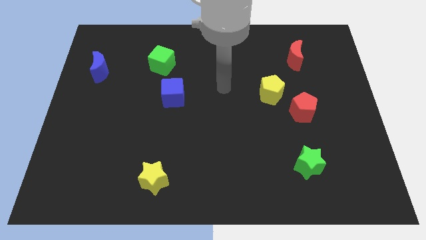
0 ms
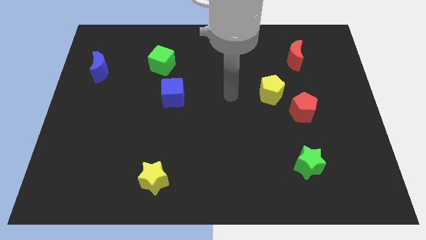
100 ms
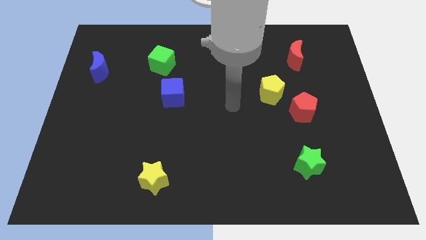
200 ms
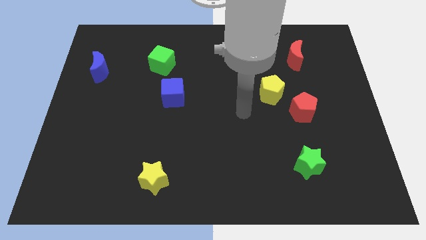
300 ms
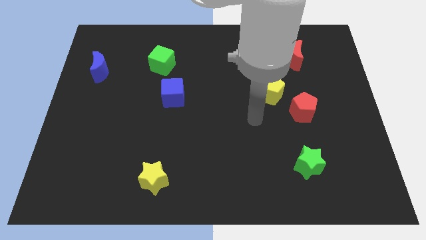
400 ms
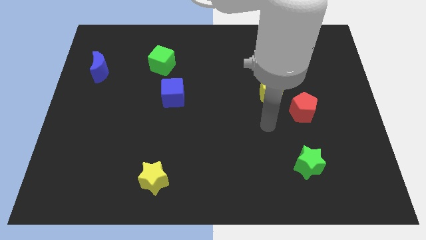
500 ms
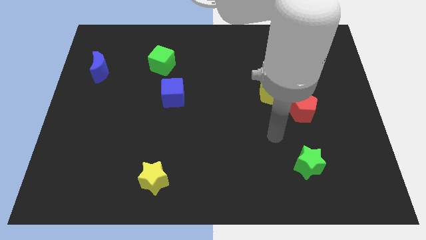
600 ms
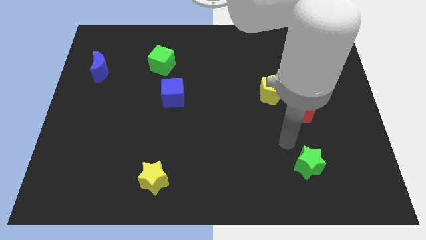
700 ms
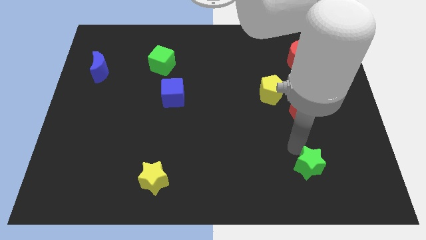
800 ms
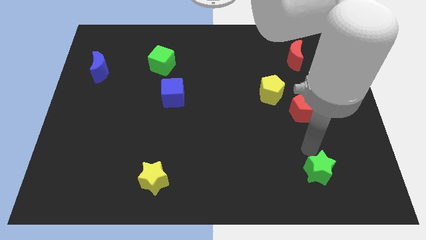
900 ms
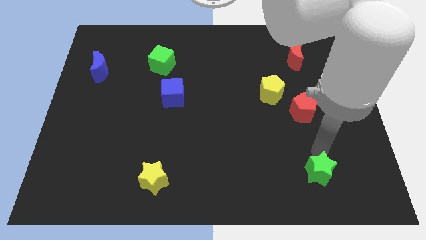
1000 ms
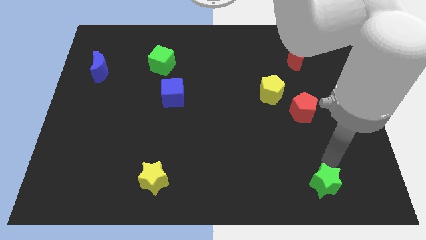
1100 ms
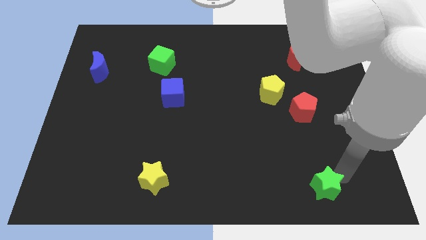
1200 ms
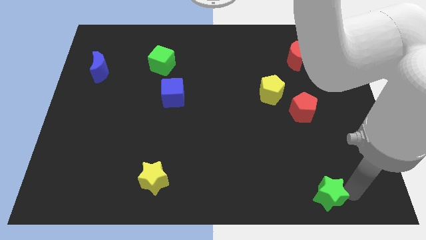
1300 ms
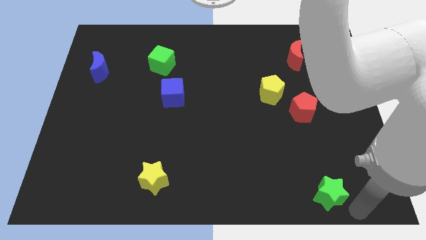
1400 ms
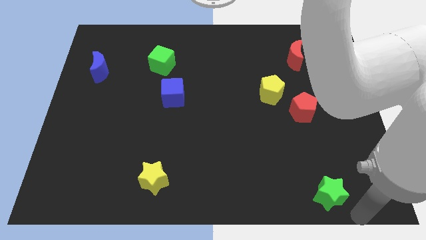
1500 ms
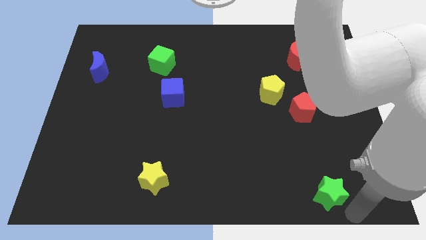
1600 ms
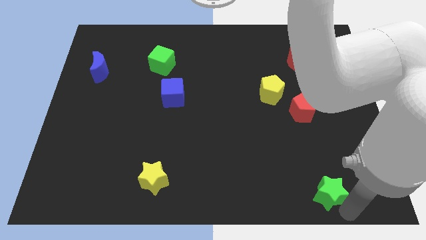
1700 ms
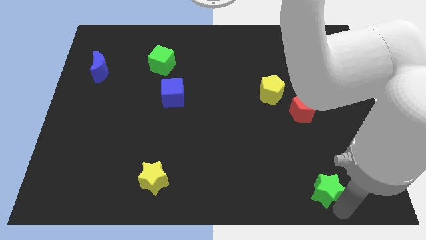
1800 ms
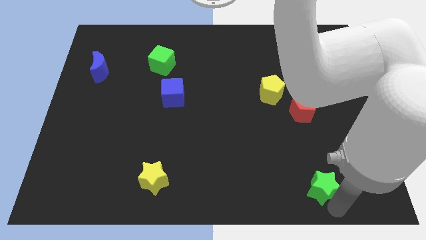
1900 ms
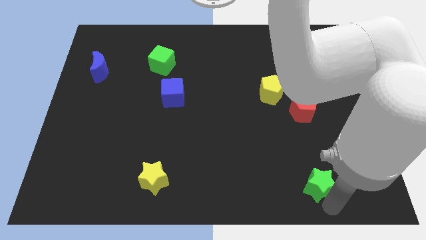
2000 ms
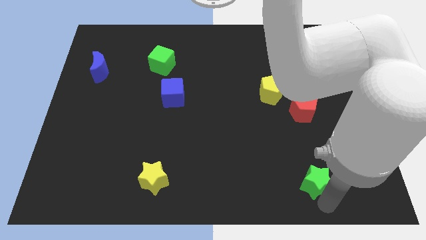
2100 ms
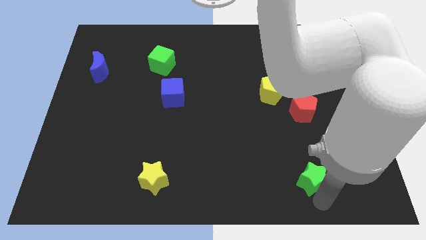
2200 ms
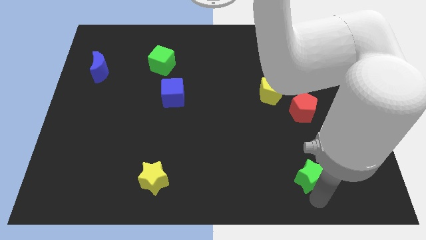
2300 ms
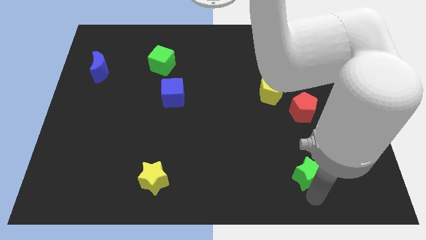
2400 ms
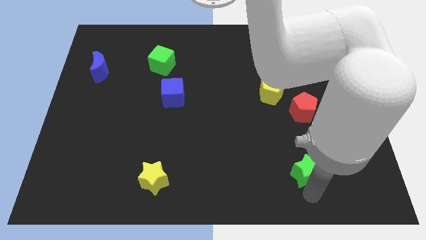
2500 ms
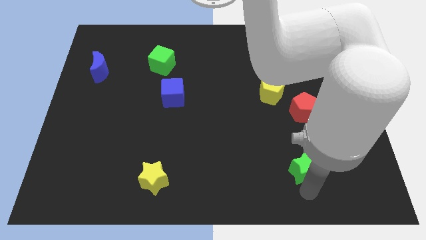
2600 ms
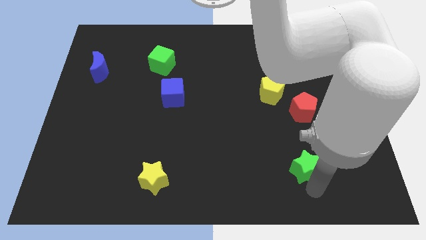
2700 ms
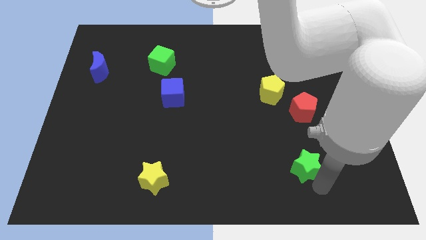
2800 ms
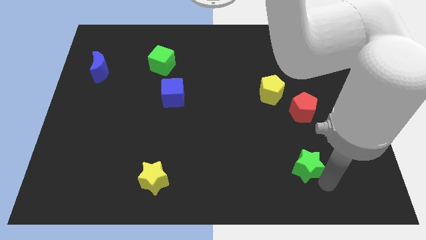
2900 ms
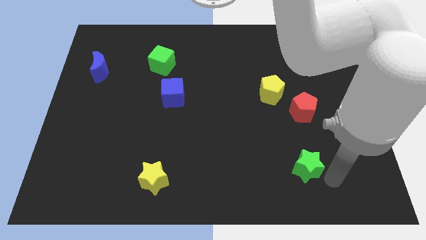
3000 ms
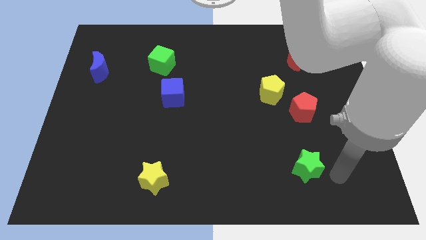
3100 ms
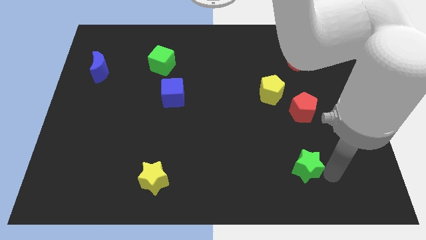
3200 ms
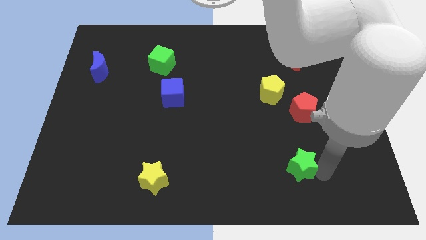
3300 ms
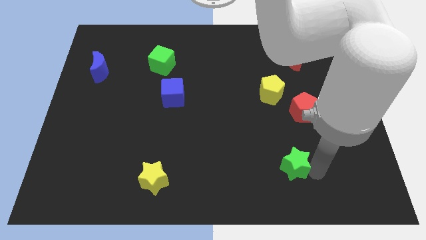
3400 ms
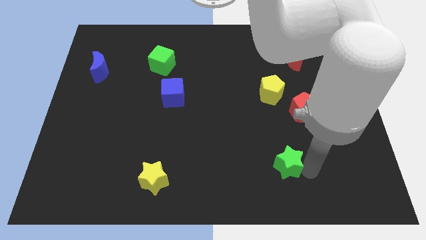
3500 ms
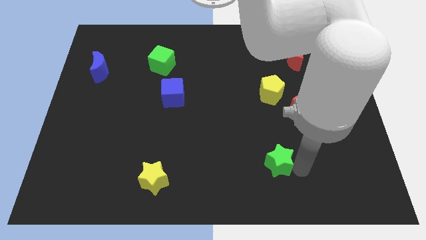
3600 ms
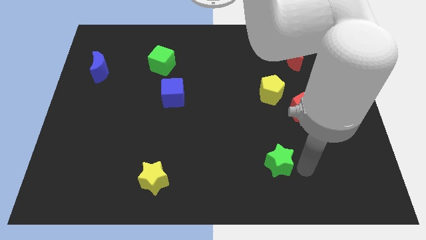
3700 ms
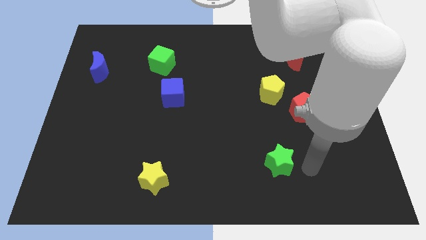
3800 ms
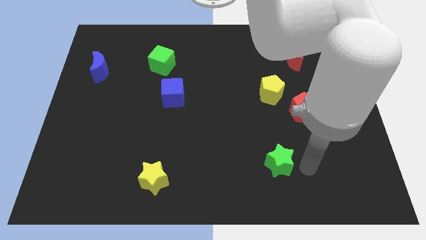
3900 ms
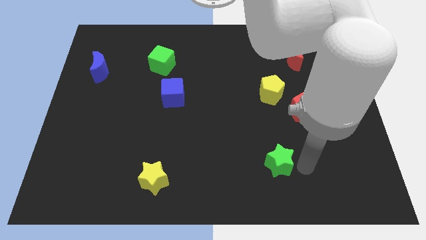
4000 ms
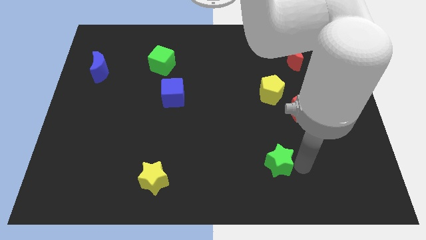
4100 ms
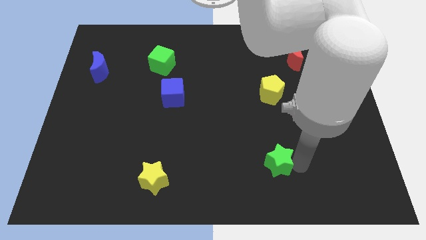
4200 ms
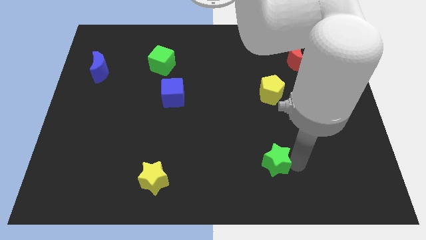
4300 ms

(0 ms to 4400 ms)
push the green star a little to the left

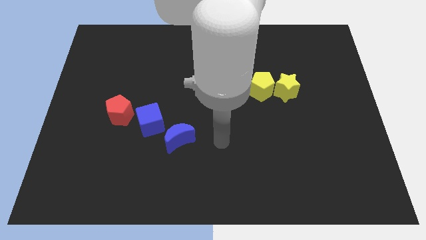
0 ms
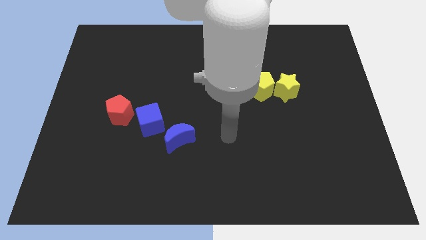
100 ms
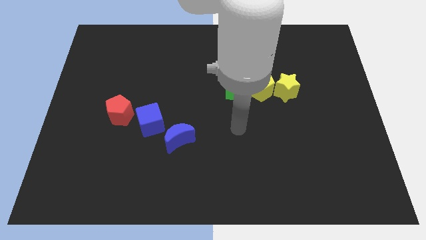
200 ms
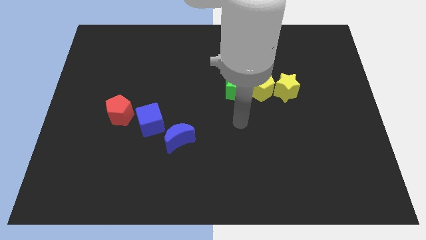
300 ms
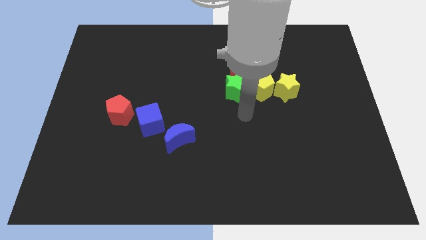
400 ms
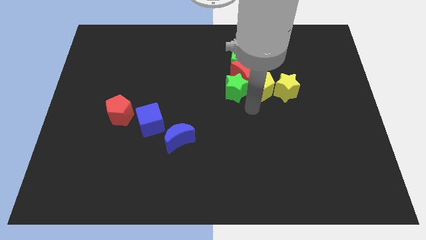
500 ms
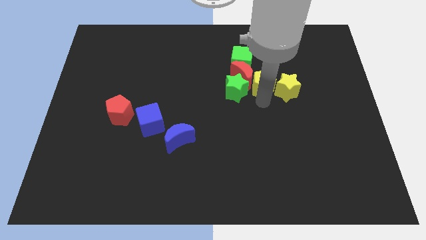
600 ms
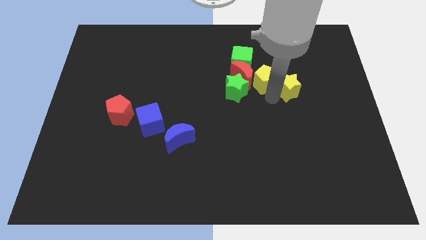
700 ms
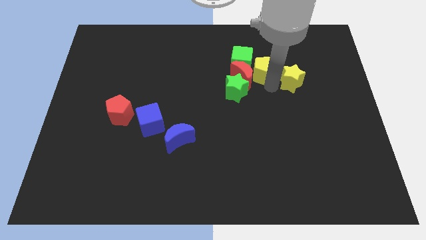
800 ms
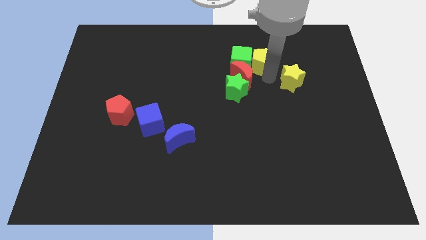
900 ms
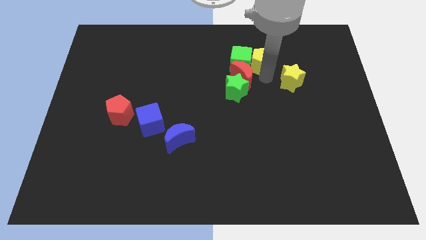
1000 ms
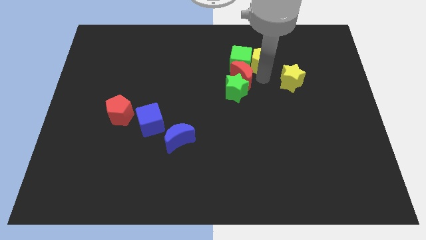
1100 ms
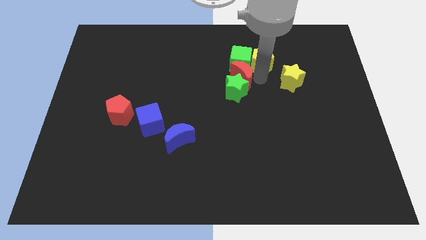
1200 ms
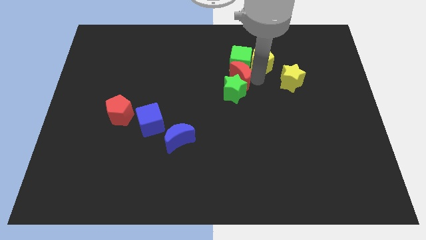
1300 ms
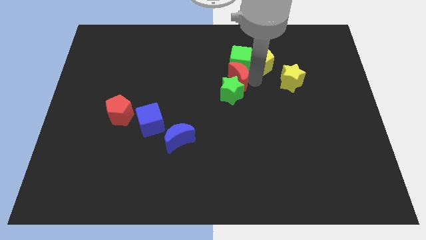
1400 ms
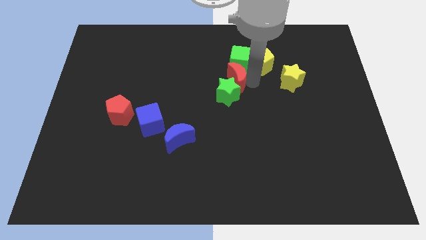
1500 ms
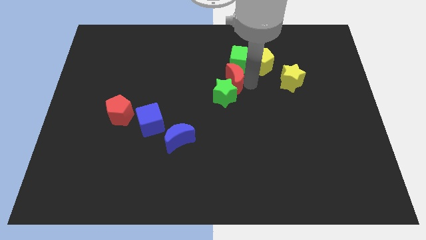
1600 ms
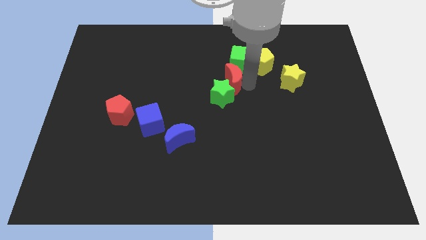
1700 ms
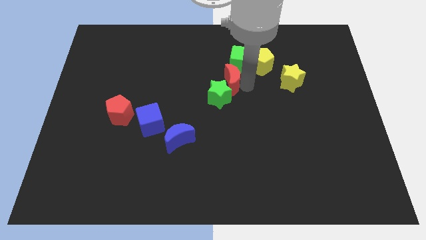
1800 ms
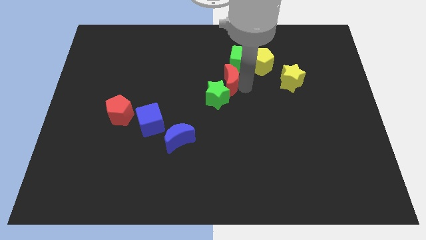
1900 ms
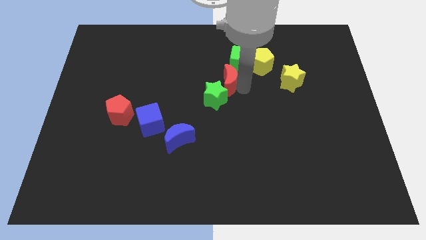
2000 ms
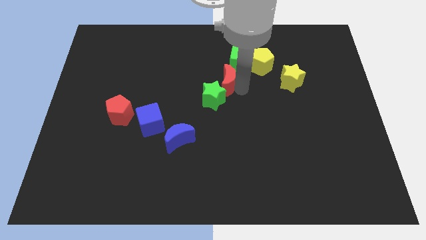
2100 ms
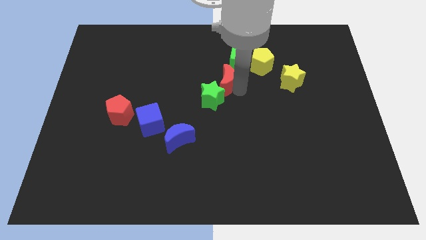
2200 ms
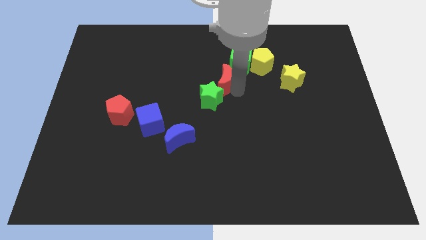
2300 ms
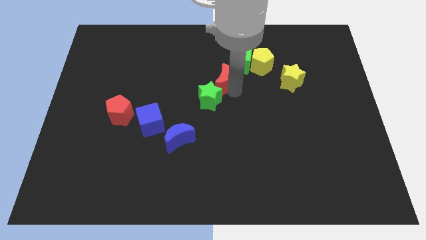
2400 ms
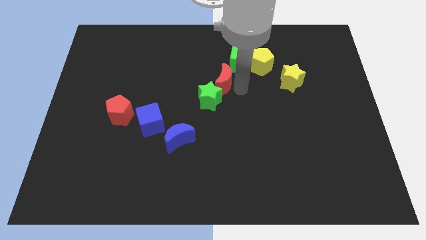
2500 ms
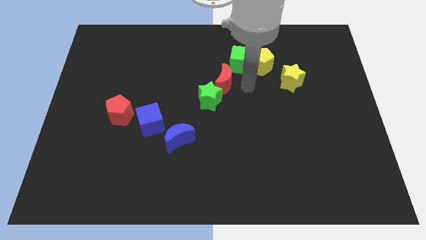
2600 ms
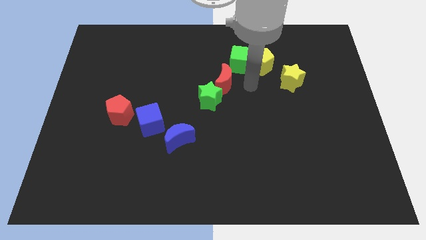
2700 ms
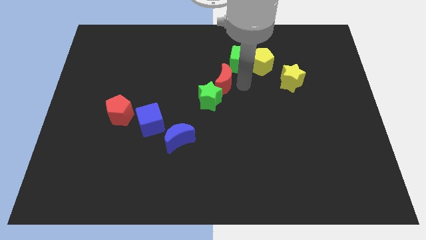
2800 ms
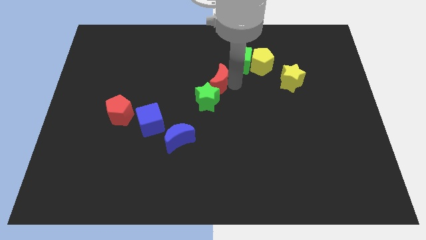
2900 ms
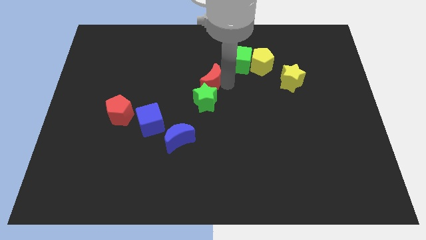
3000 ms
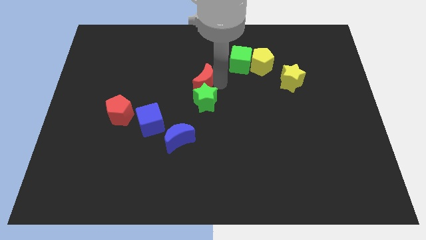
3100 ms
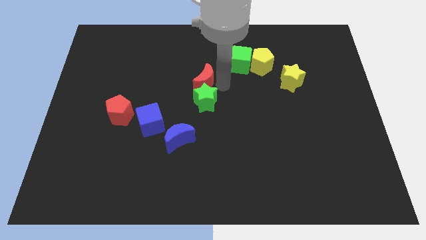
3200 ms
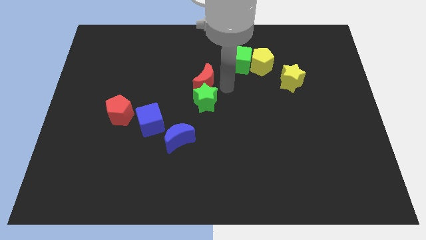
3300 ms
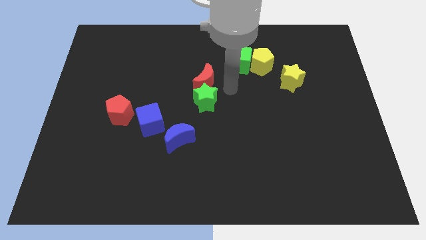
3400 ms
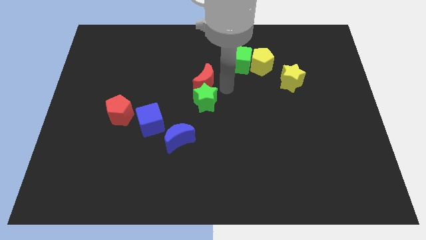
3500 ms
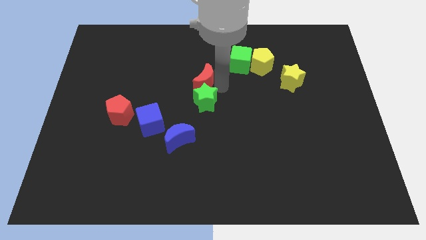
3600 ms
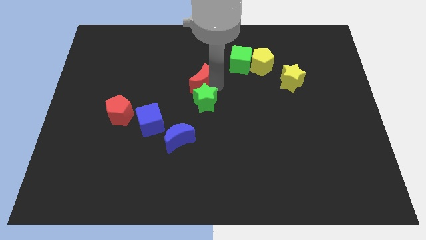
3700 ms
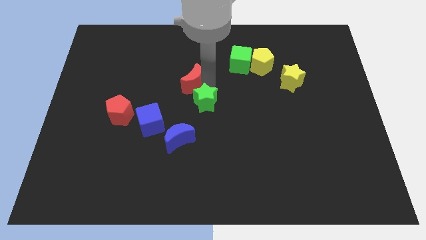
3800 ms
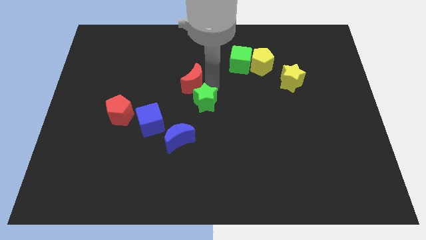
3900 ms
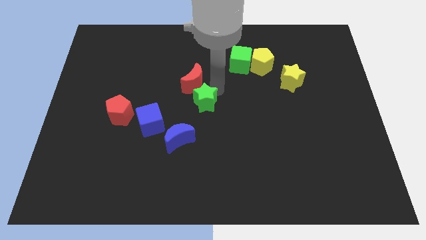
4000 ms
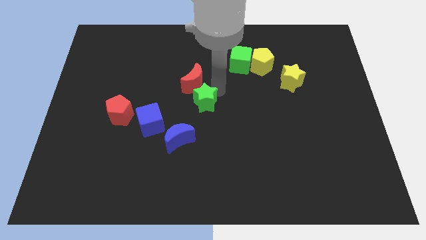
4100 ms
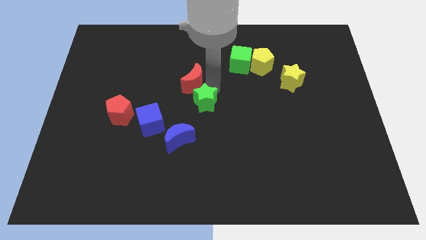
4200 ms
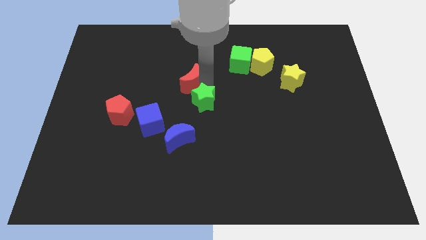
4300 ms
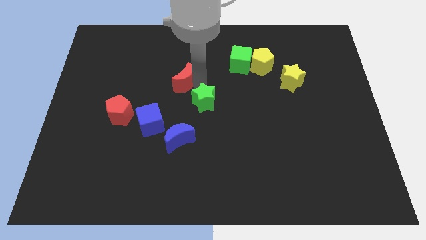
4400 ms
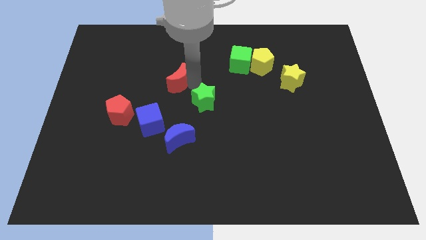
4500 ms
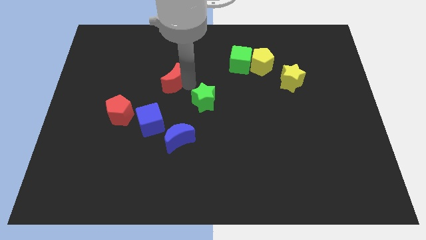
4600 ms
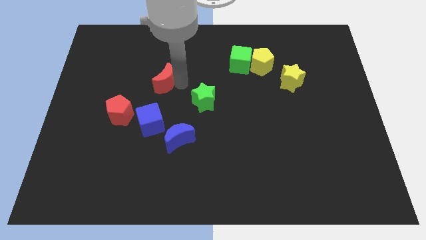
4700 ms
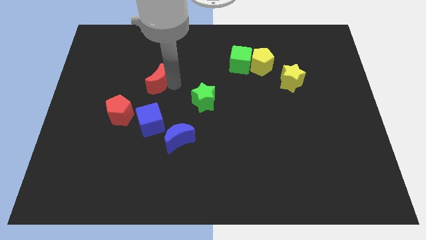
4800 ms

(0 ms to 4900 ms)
push the red moon to the left
